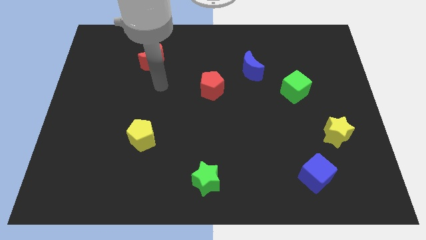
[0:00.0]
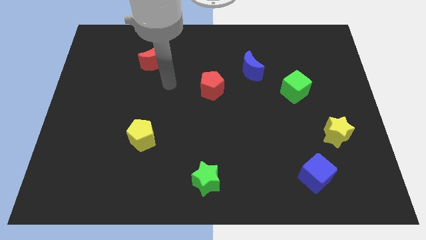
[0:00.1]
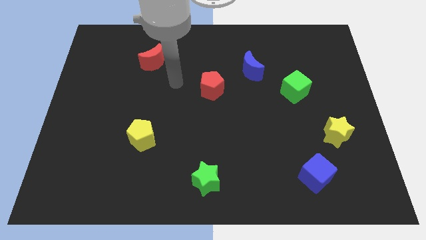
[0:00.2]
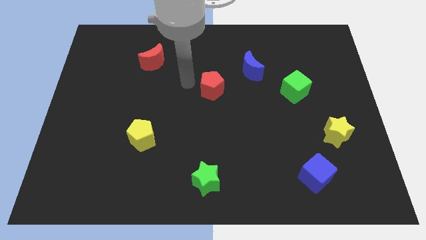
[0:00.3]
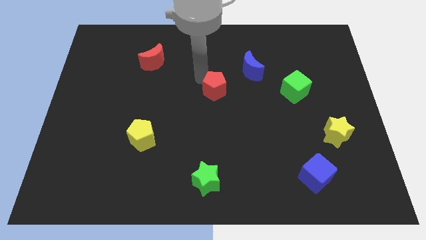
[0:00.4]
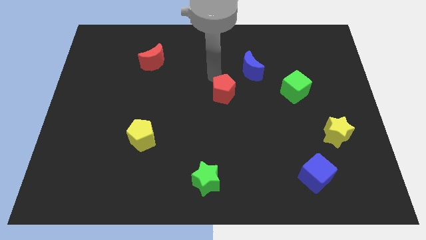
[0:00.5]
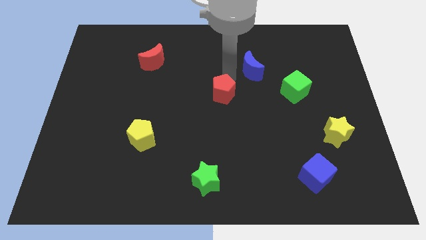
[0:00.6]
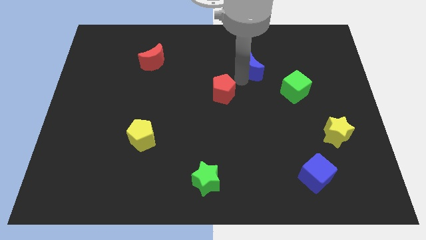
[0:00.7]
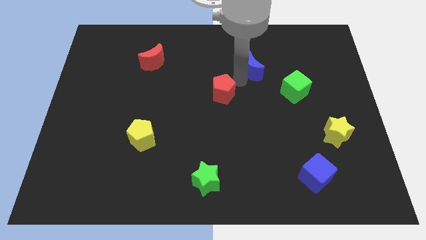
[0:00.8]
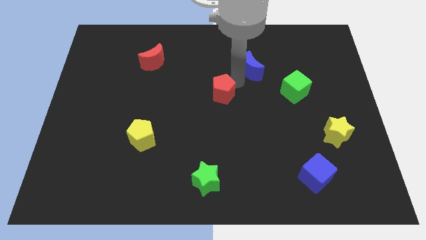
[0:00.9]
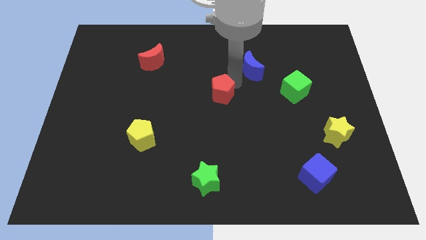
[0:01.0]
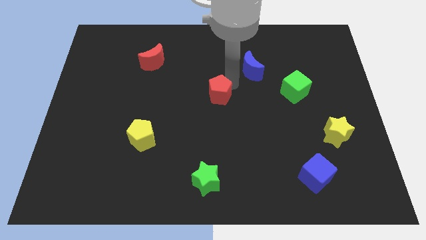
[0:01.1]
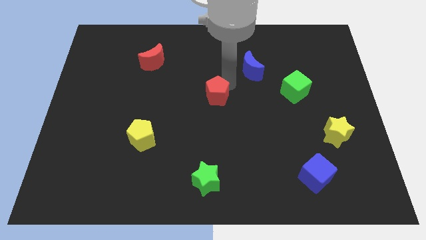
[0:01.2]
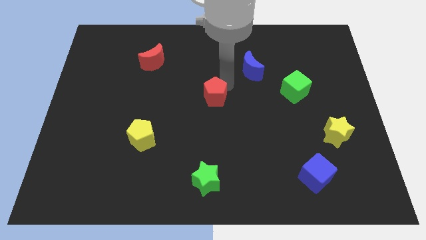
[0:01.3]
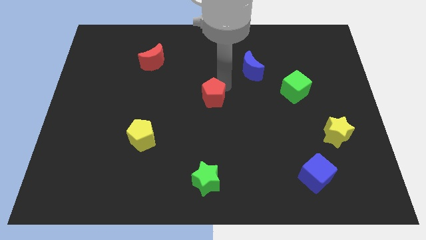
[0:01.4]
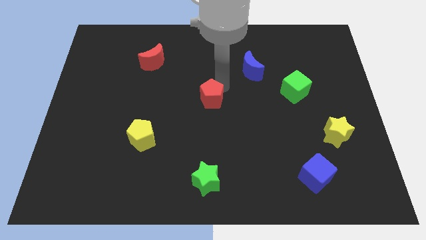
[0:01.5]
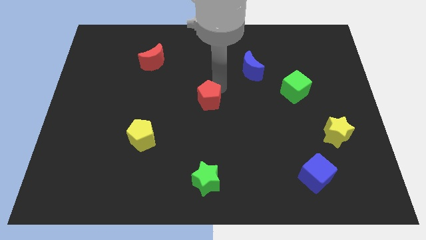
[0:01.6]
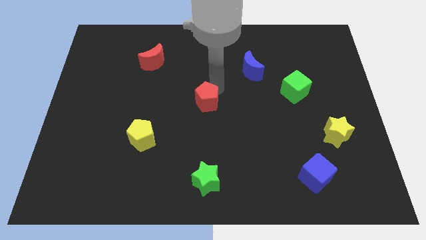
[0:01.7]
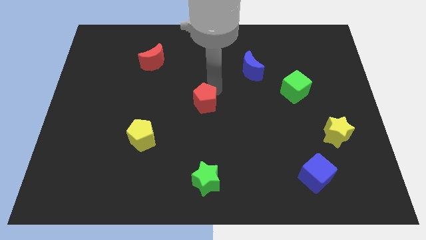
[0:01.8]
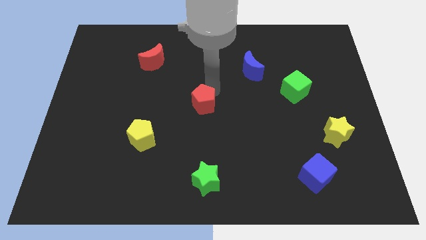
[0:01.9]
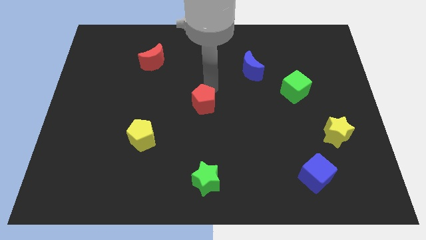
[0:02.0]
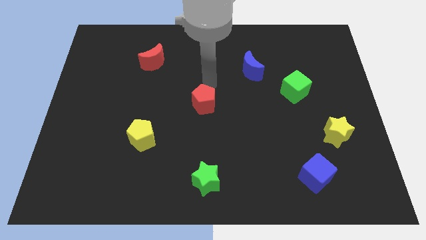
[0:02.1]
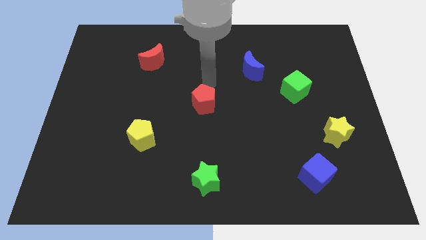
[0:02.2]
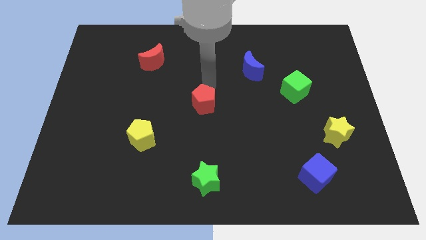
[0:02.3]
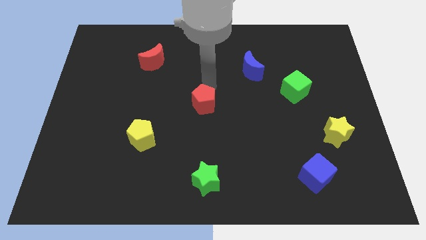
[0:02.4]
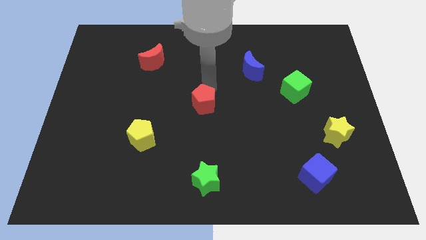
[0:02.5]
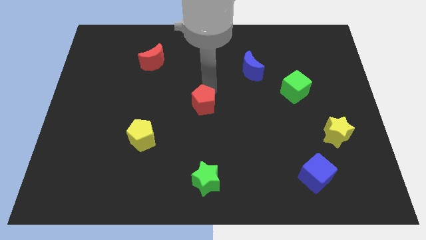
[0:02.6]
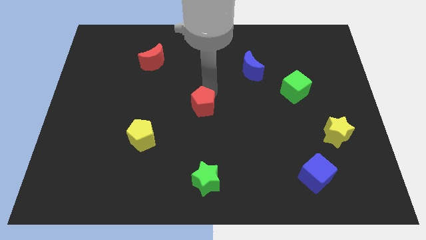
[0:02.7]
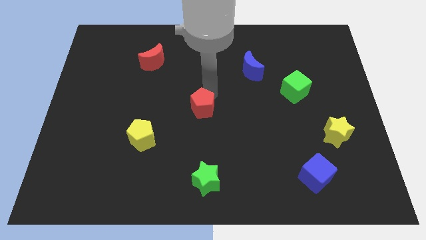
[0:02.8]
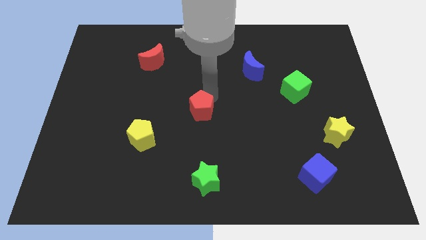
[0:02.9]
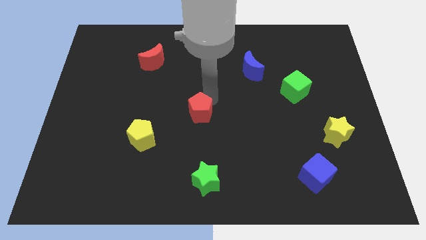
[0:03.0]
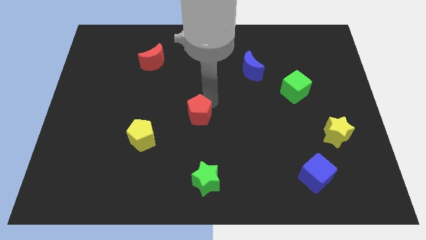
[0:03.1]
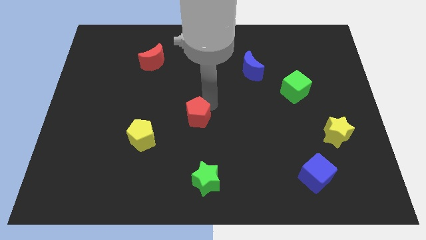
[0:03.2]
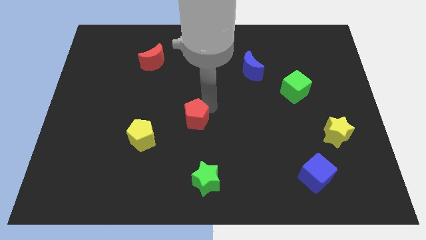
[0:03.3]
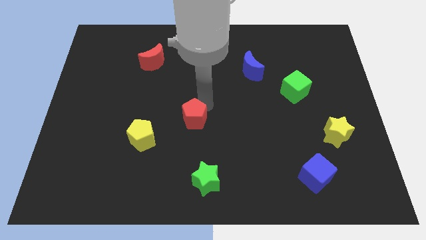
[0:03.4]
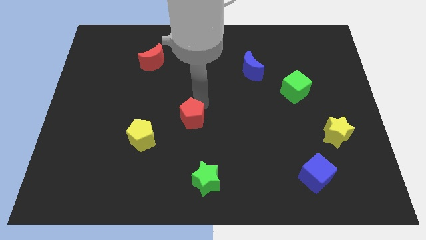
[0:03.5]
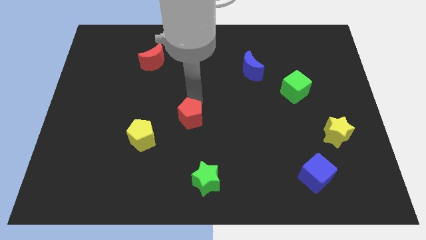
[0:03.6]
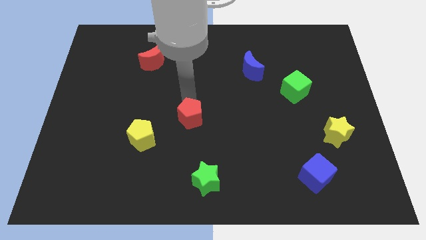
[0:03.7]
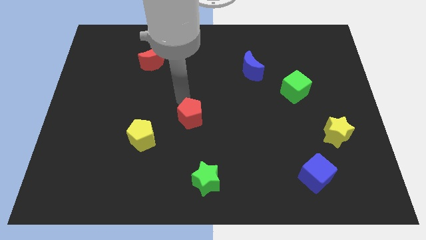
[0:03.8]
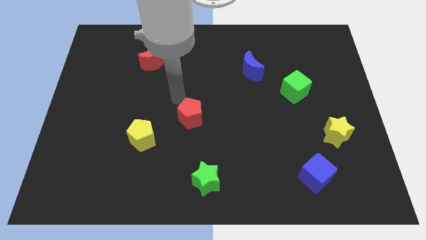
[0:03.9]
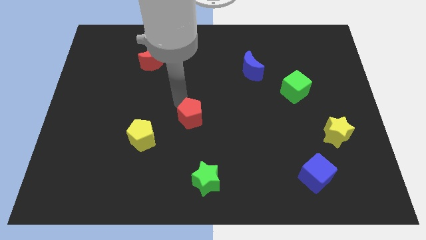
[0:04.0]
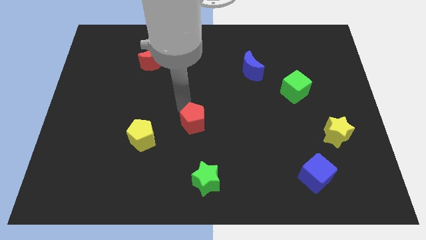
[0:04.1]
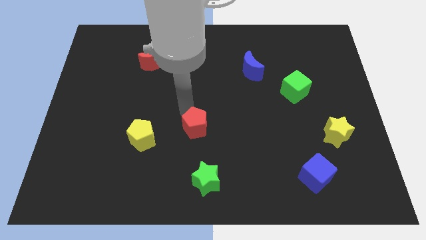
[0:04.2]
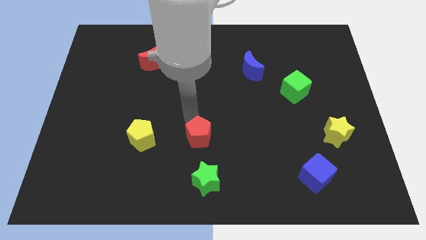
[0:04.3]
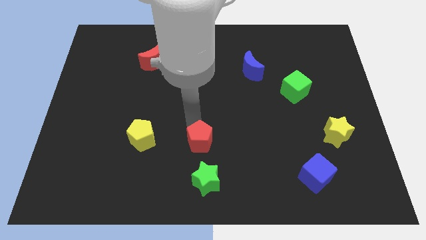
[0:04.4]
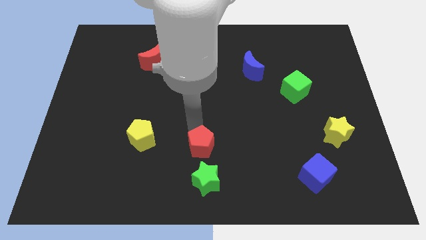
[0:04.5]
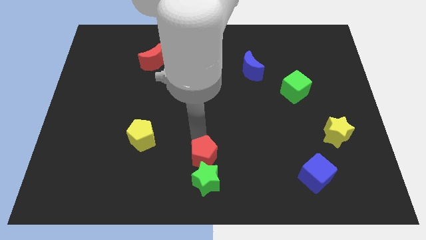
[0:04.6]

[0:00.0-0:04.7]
put the red pentagon to the green star

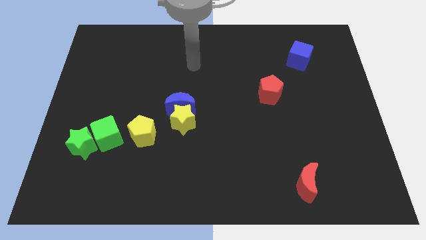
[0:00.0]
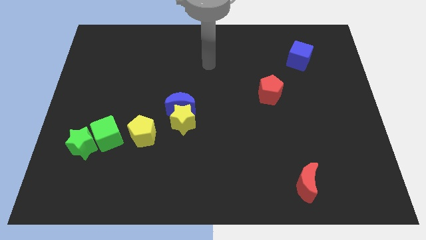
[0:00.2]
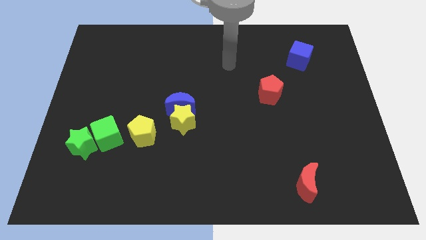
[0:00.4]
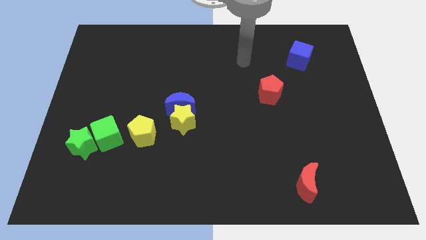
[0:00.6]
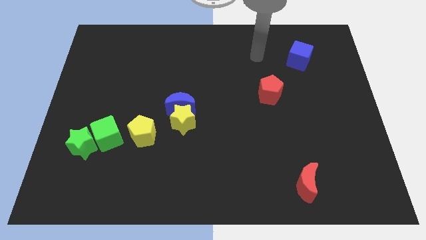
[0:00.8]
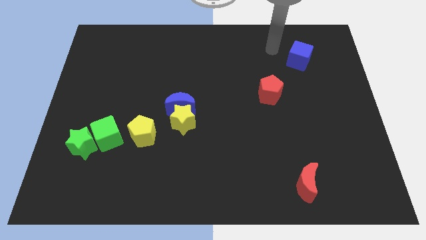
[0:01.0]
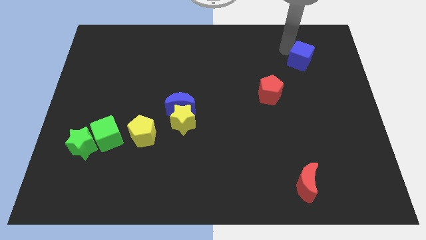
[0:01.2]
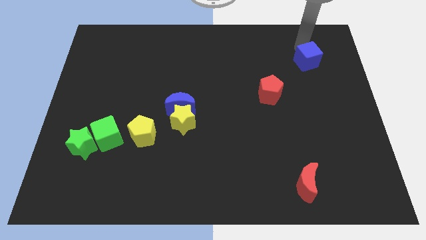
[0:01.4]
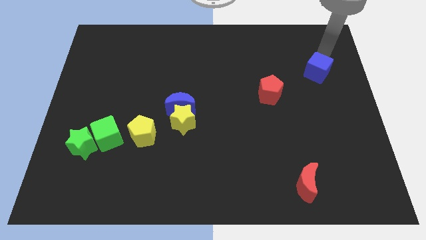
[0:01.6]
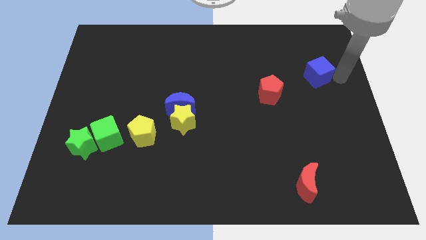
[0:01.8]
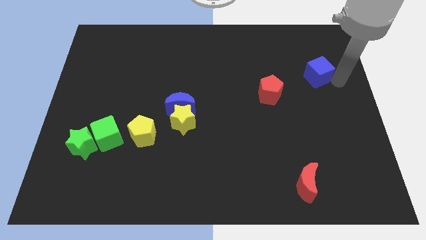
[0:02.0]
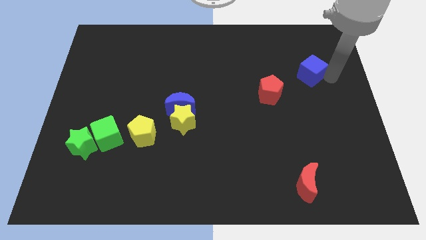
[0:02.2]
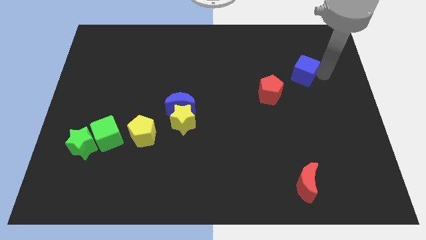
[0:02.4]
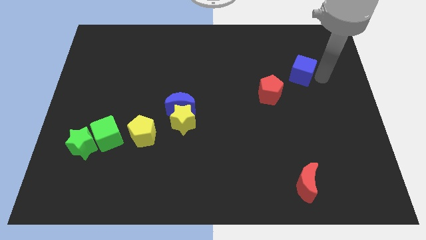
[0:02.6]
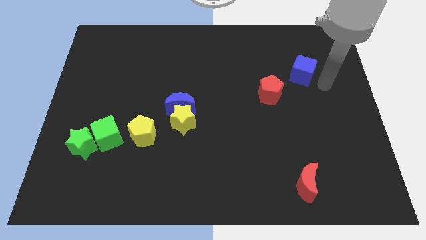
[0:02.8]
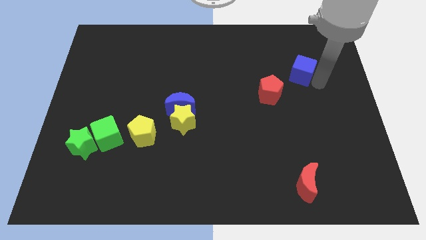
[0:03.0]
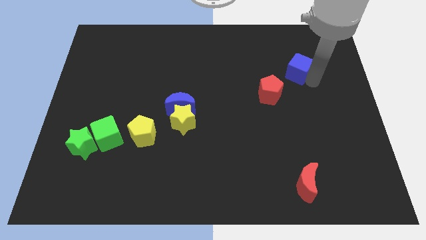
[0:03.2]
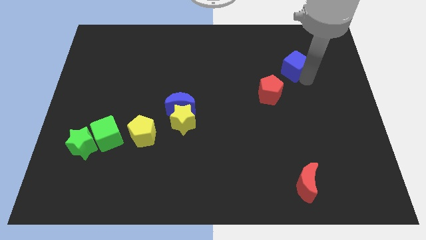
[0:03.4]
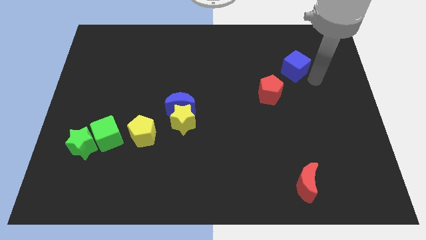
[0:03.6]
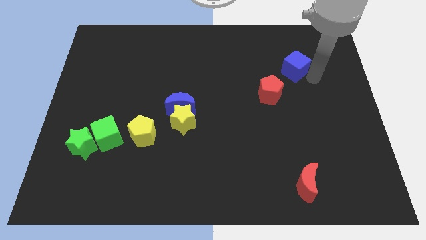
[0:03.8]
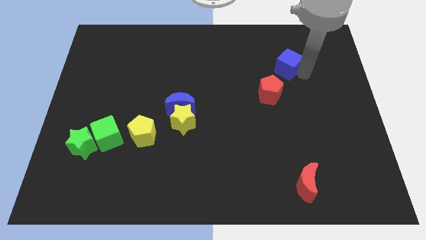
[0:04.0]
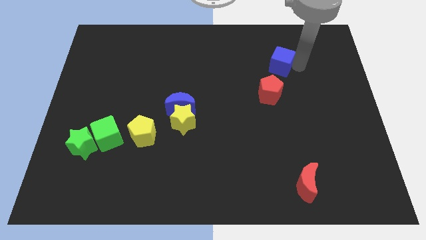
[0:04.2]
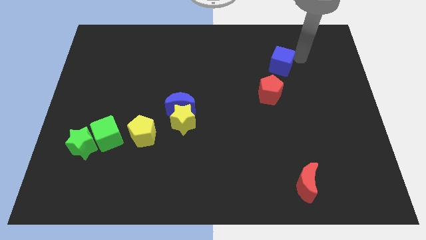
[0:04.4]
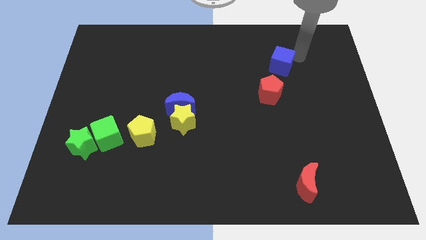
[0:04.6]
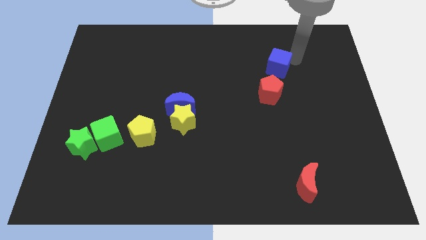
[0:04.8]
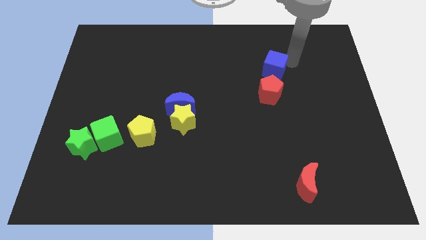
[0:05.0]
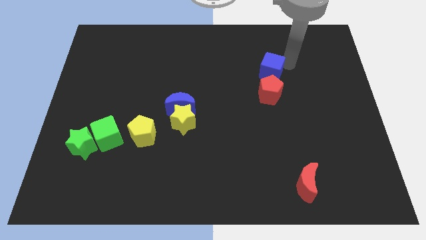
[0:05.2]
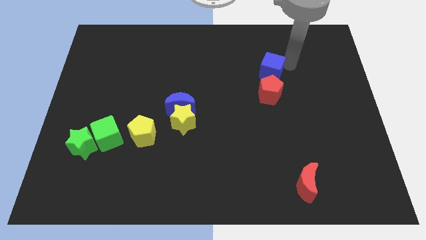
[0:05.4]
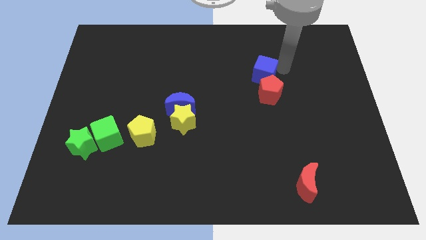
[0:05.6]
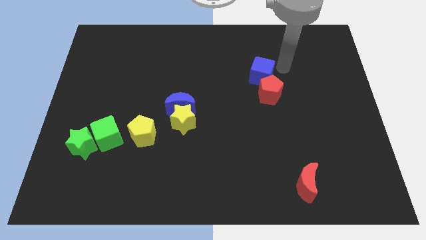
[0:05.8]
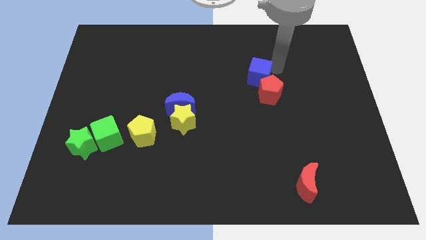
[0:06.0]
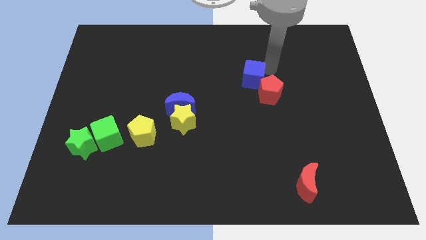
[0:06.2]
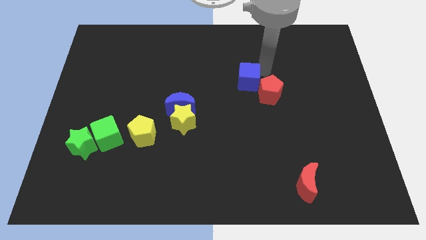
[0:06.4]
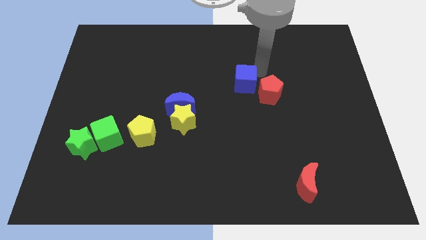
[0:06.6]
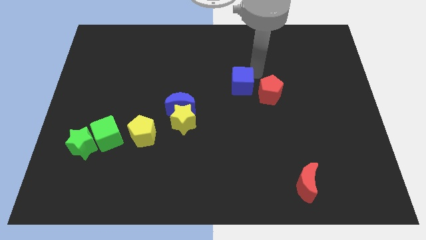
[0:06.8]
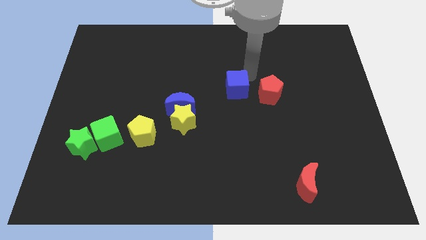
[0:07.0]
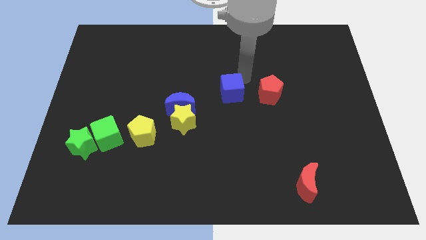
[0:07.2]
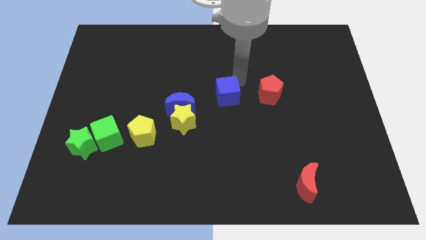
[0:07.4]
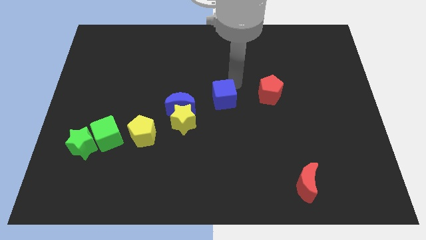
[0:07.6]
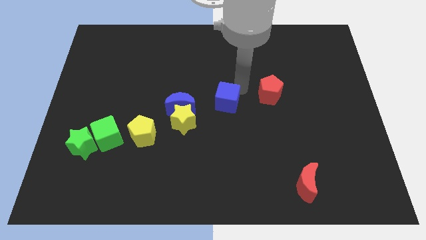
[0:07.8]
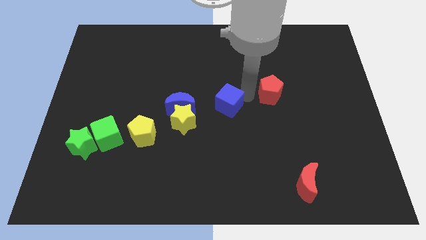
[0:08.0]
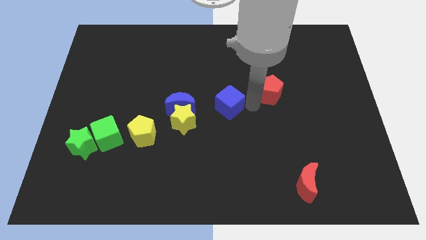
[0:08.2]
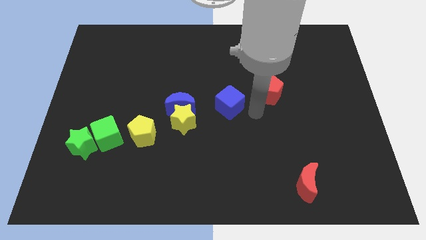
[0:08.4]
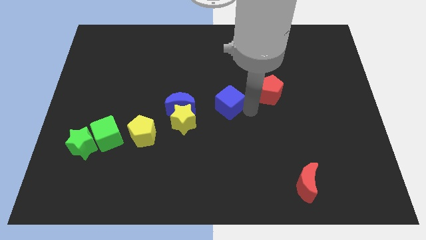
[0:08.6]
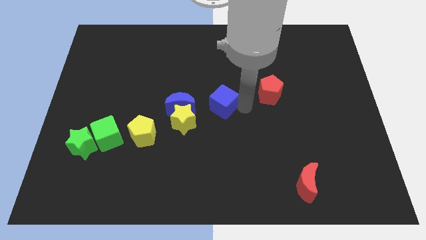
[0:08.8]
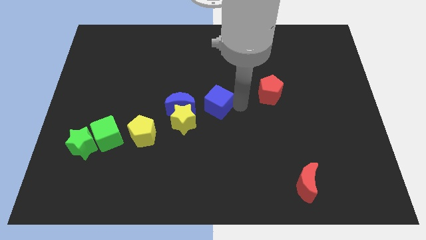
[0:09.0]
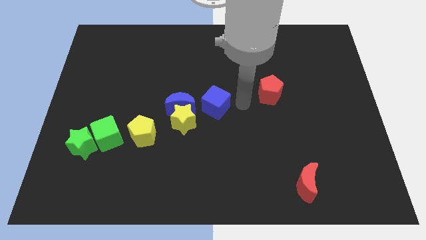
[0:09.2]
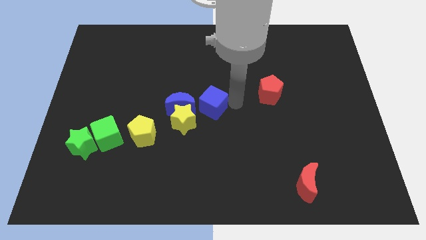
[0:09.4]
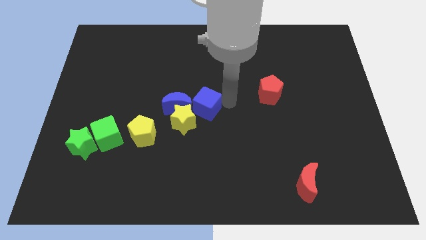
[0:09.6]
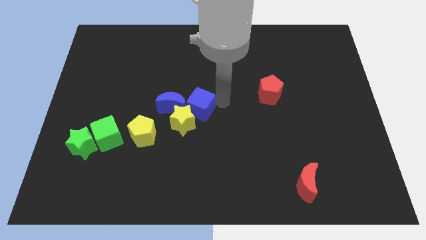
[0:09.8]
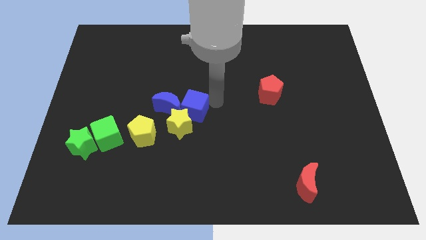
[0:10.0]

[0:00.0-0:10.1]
push the blue cube close to the blue moon
